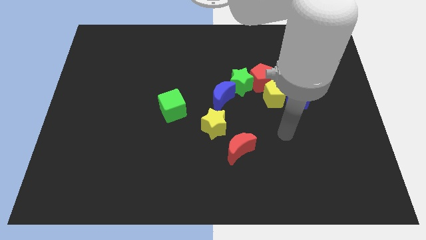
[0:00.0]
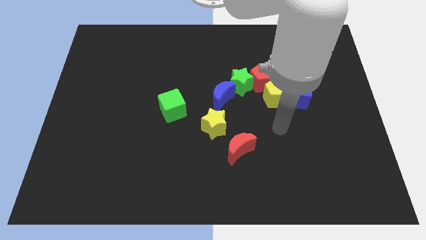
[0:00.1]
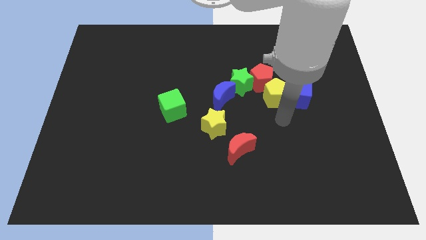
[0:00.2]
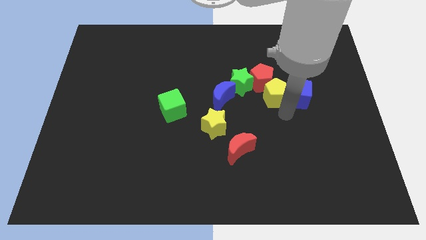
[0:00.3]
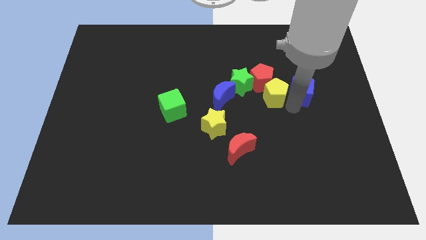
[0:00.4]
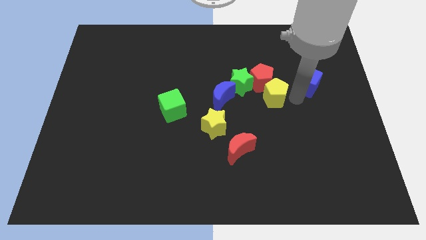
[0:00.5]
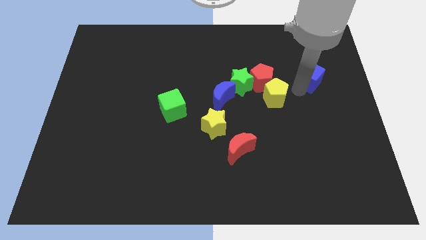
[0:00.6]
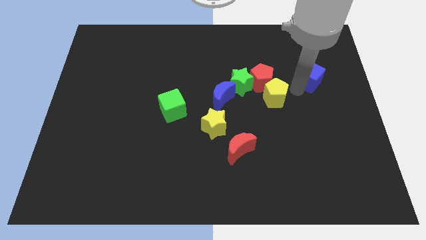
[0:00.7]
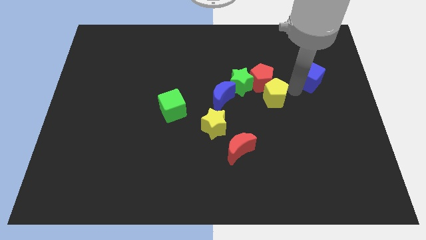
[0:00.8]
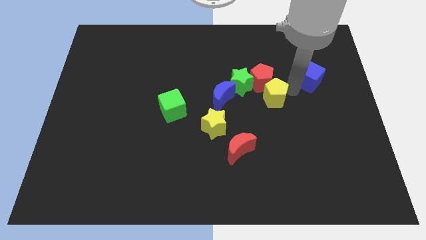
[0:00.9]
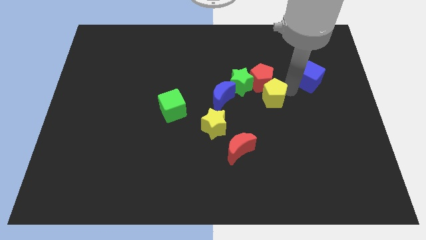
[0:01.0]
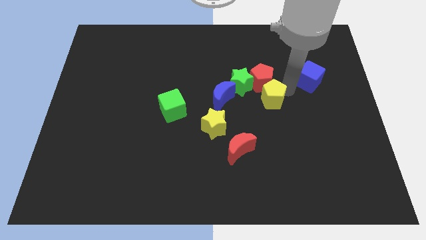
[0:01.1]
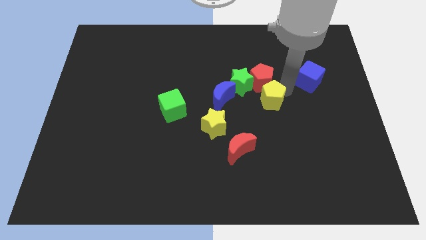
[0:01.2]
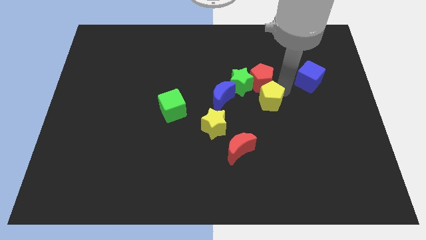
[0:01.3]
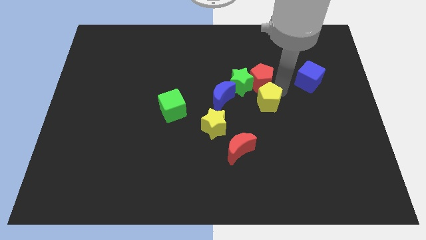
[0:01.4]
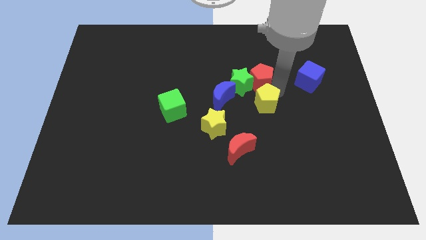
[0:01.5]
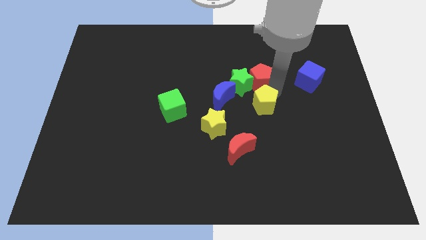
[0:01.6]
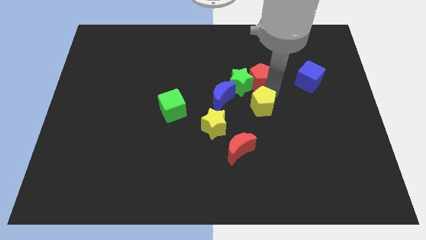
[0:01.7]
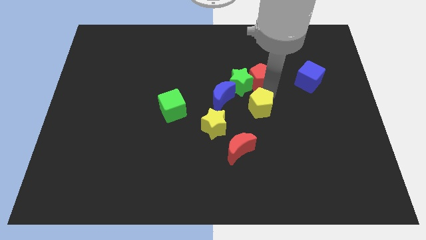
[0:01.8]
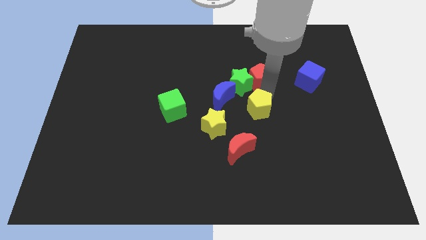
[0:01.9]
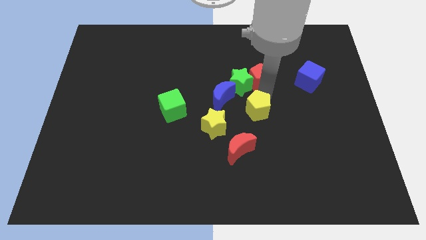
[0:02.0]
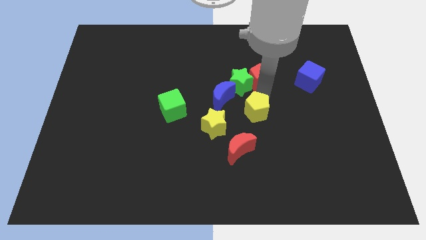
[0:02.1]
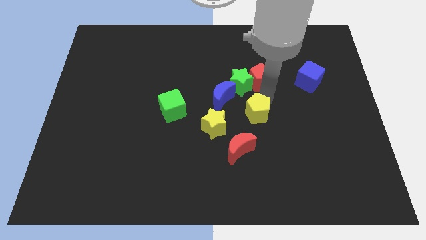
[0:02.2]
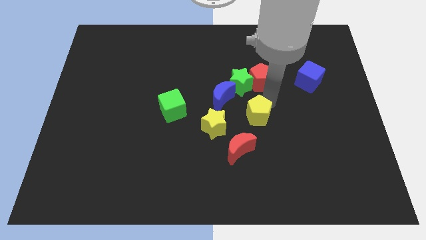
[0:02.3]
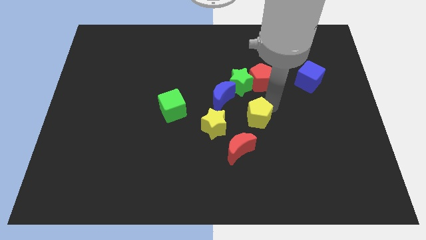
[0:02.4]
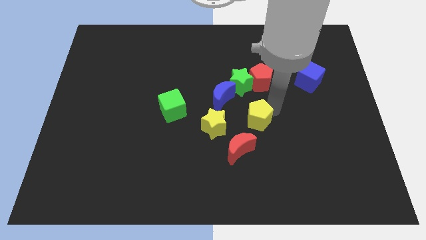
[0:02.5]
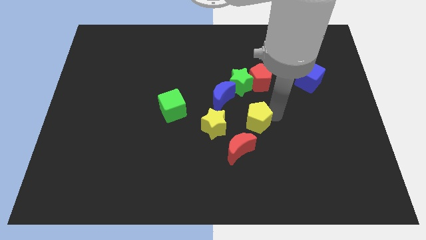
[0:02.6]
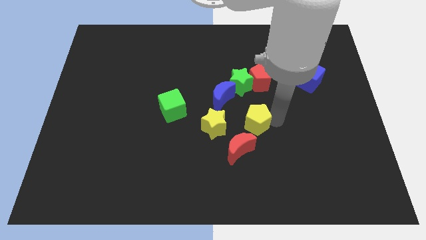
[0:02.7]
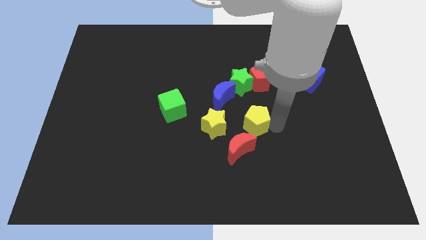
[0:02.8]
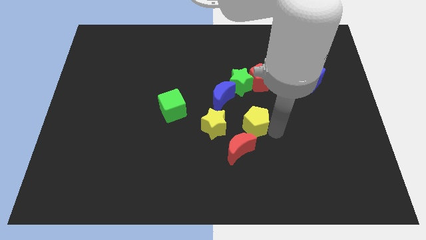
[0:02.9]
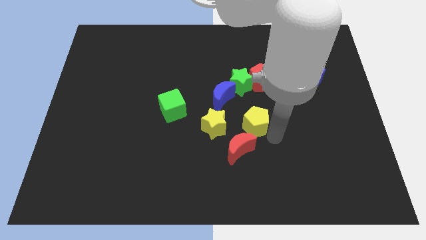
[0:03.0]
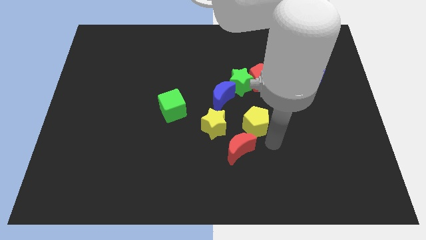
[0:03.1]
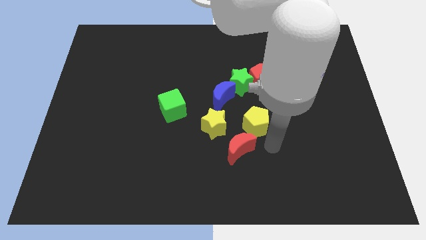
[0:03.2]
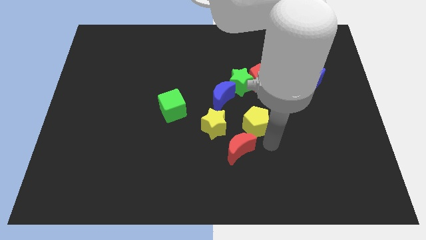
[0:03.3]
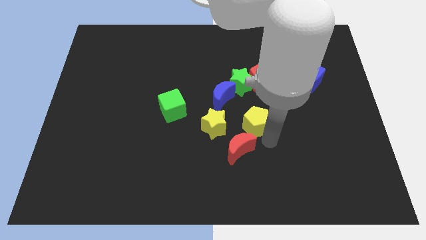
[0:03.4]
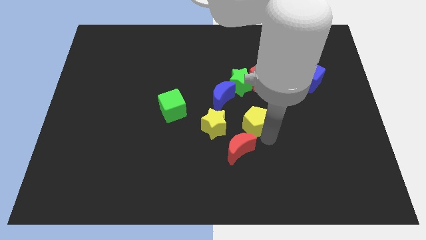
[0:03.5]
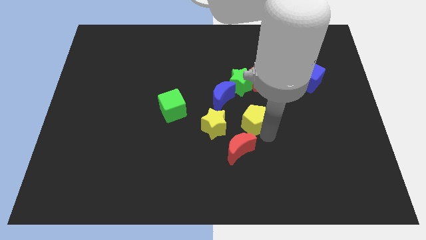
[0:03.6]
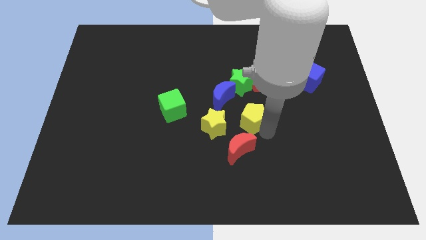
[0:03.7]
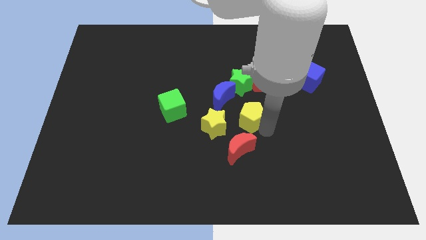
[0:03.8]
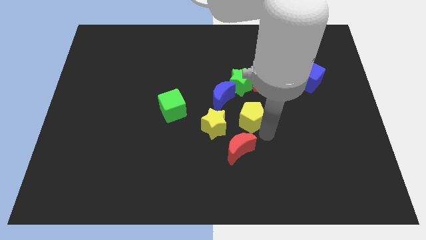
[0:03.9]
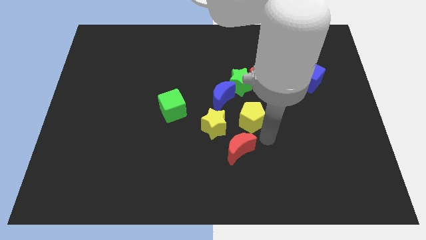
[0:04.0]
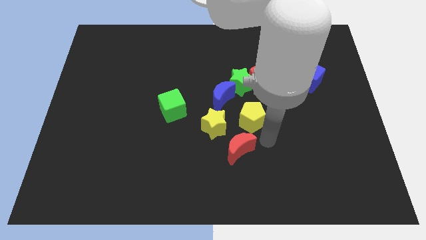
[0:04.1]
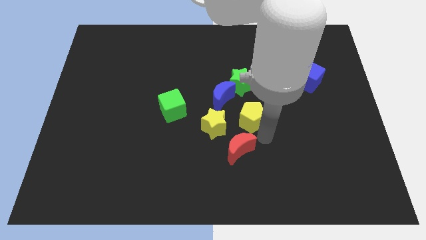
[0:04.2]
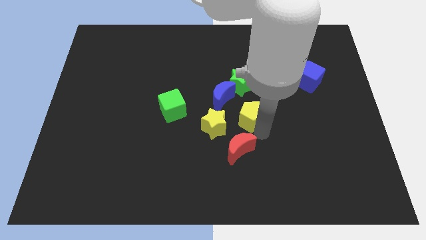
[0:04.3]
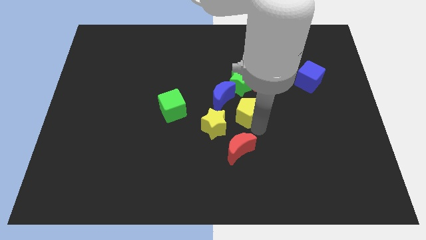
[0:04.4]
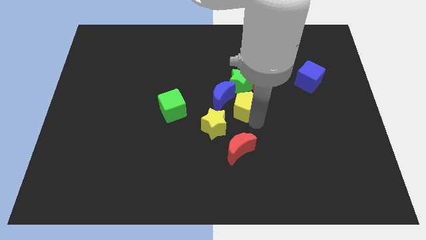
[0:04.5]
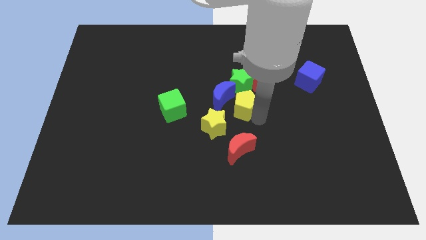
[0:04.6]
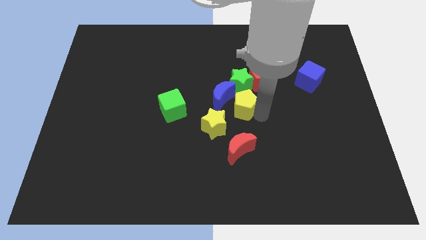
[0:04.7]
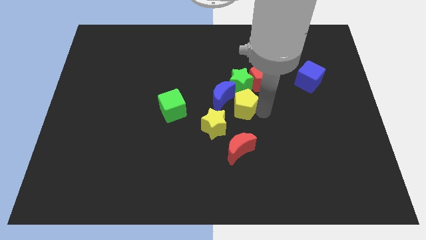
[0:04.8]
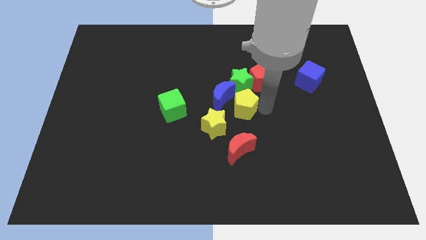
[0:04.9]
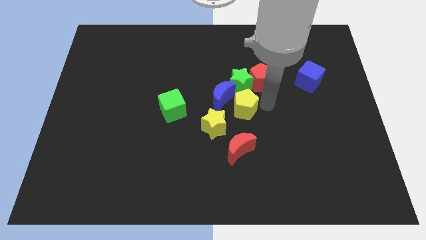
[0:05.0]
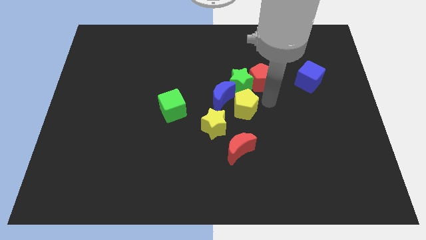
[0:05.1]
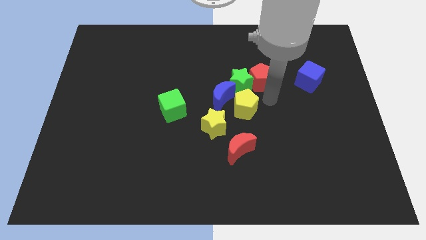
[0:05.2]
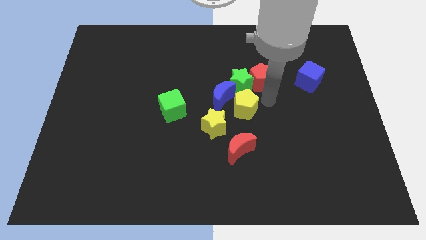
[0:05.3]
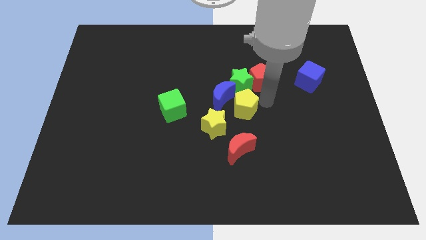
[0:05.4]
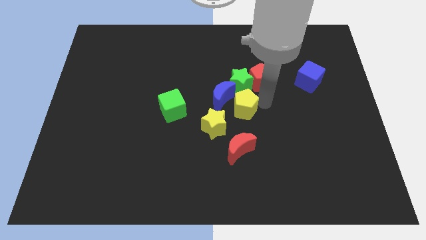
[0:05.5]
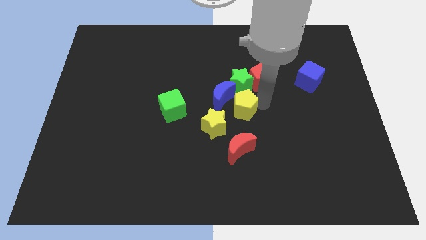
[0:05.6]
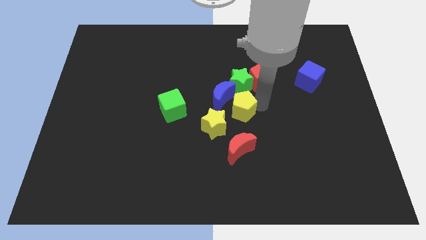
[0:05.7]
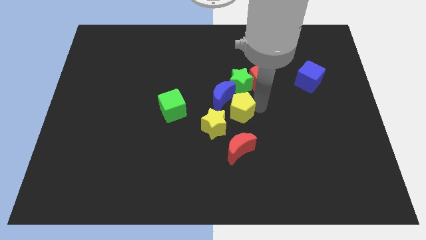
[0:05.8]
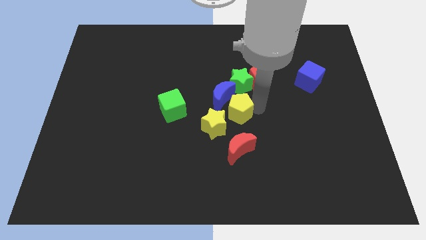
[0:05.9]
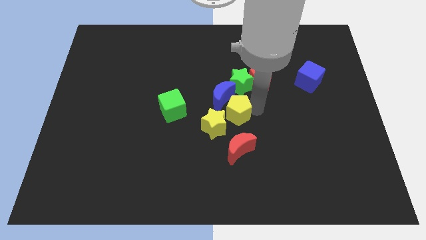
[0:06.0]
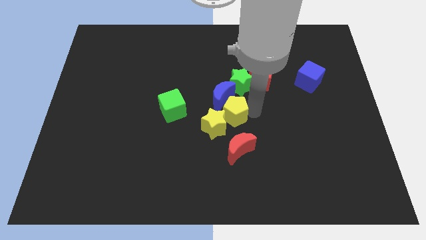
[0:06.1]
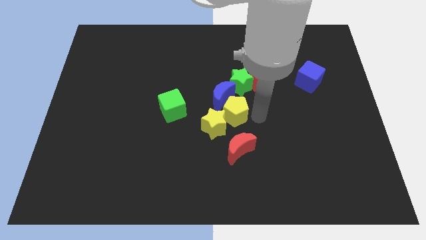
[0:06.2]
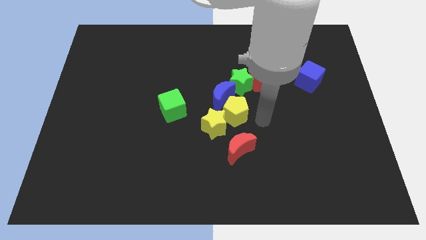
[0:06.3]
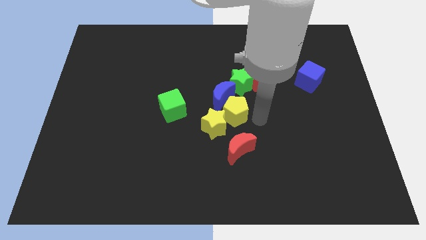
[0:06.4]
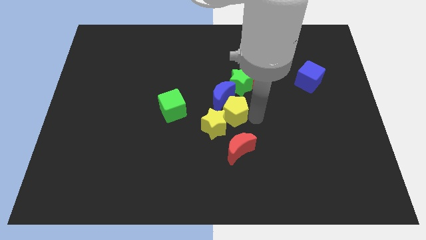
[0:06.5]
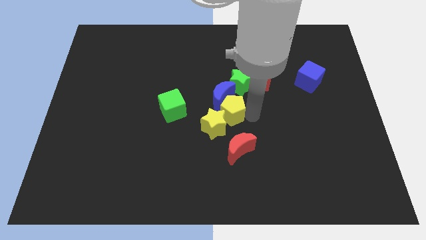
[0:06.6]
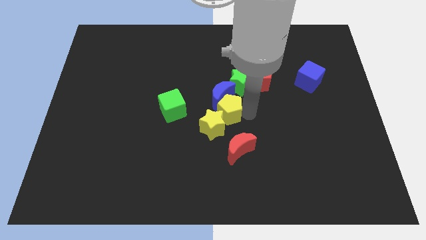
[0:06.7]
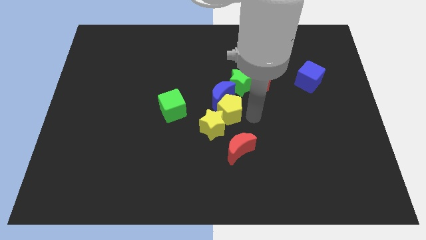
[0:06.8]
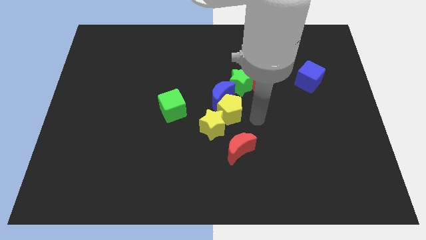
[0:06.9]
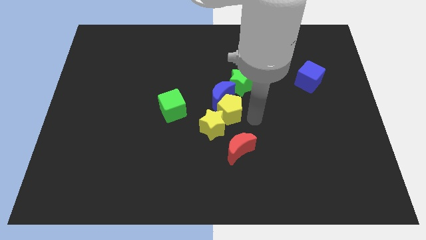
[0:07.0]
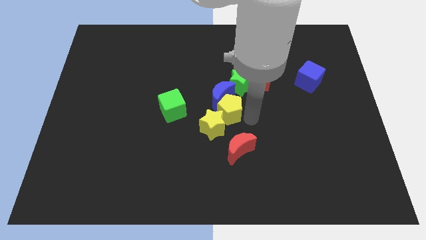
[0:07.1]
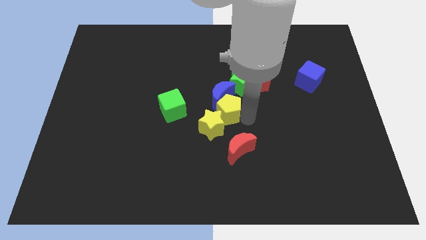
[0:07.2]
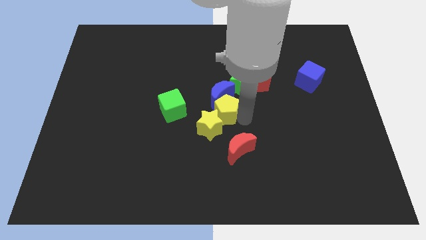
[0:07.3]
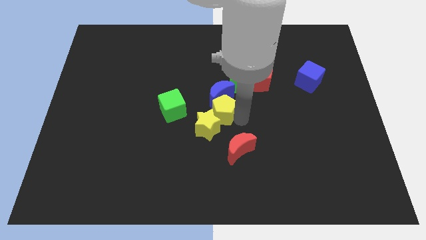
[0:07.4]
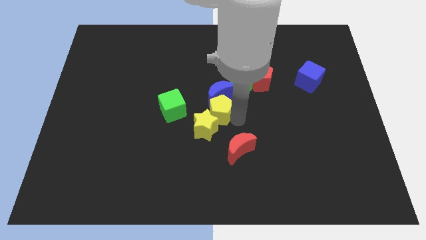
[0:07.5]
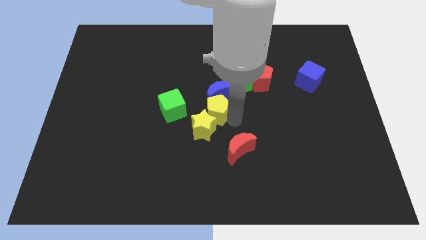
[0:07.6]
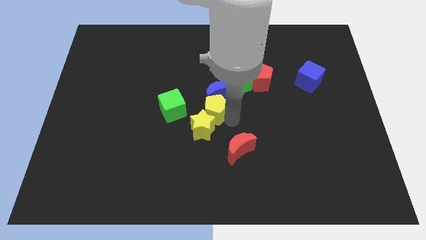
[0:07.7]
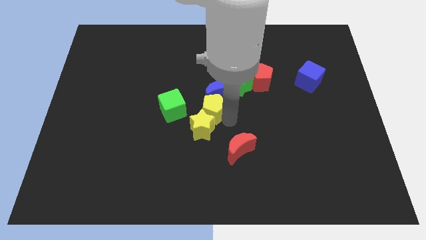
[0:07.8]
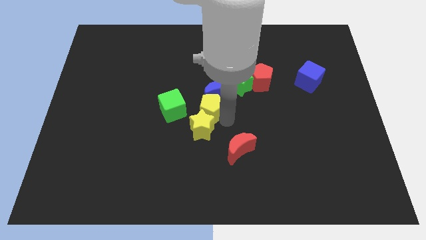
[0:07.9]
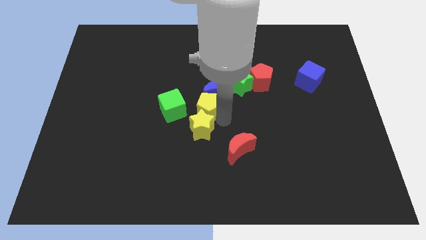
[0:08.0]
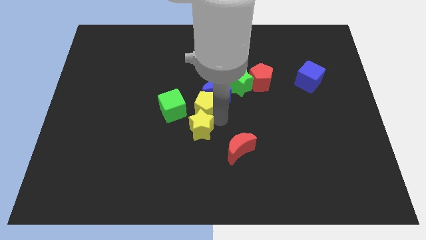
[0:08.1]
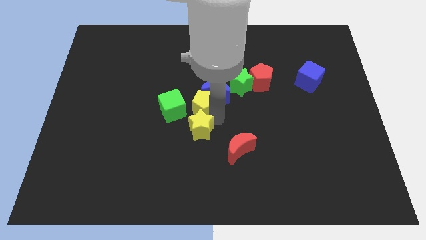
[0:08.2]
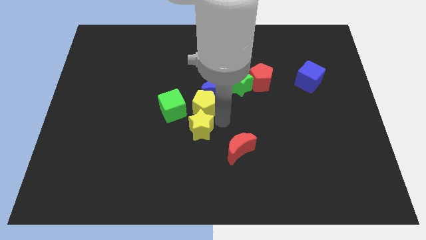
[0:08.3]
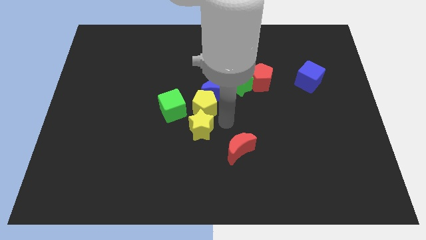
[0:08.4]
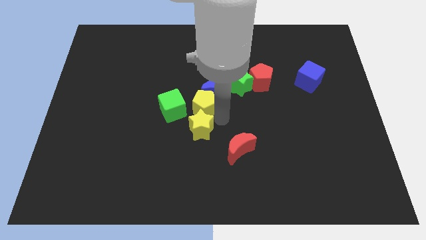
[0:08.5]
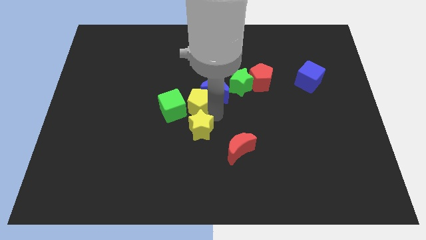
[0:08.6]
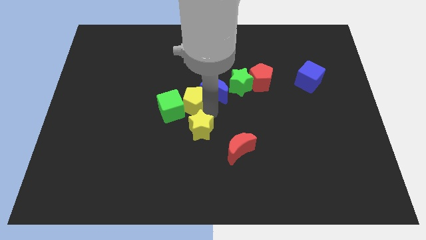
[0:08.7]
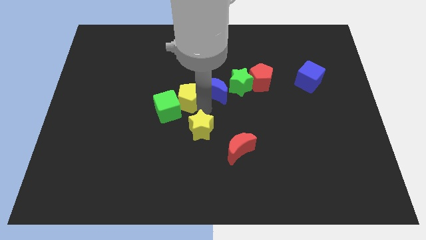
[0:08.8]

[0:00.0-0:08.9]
move the yellow pentagon to the left
